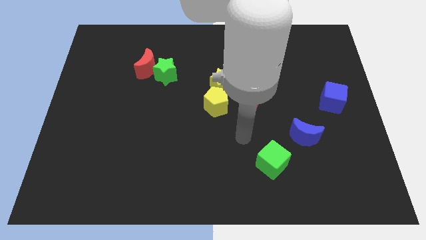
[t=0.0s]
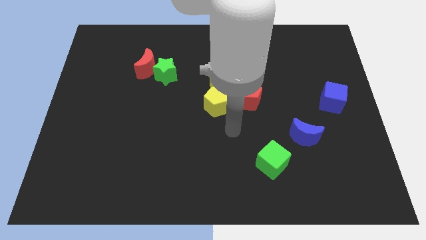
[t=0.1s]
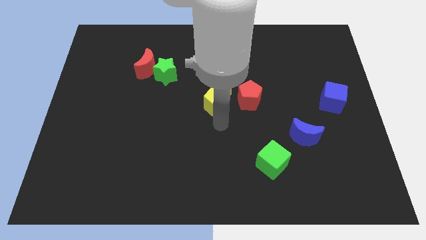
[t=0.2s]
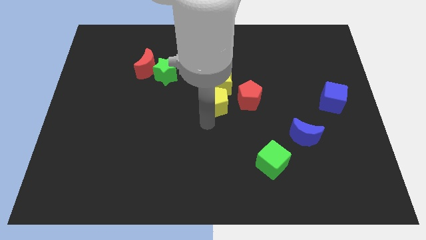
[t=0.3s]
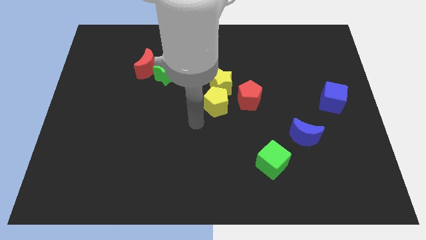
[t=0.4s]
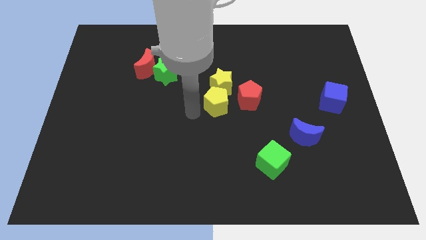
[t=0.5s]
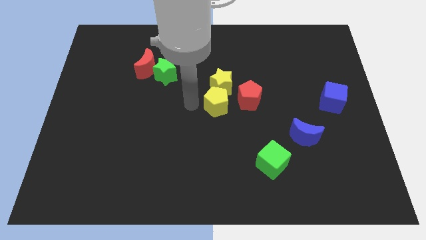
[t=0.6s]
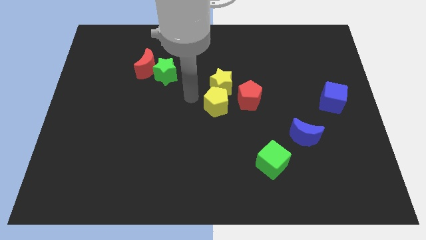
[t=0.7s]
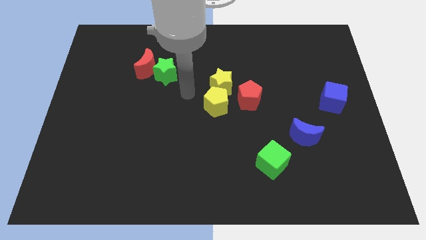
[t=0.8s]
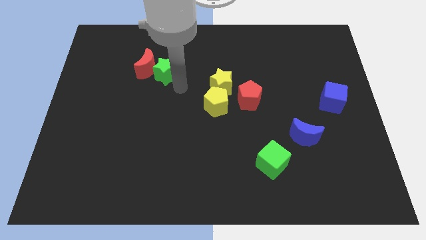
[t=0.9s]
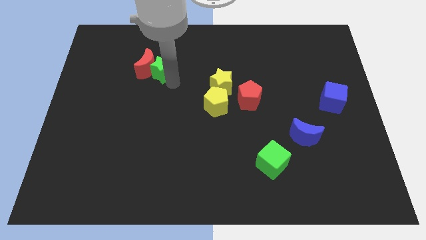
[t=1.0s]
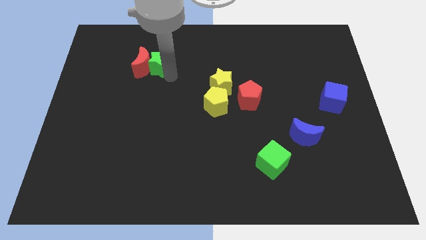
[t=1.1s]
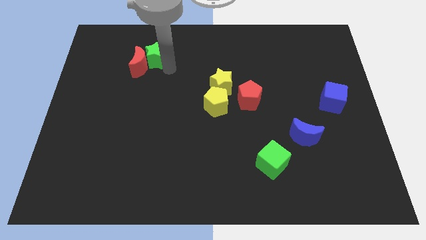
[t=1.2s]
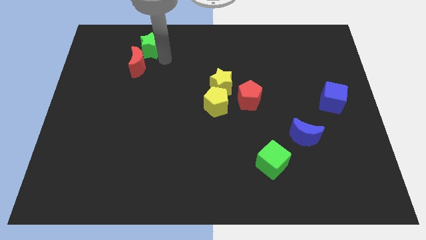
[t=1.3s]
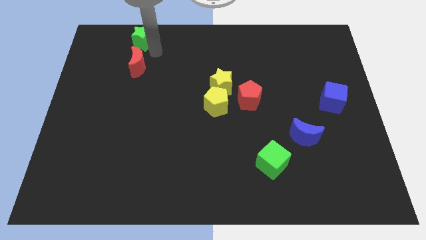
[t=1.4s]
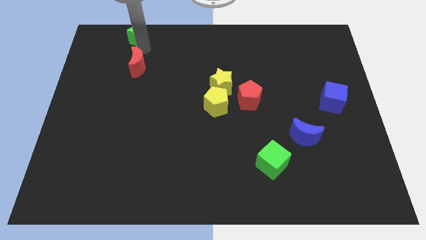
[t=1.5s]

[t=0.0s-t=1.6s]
separate the red moon from the green star

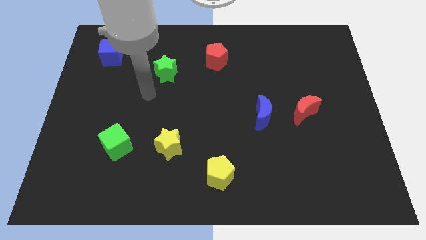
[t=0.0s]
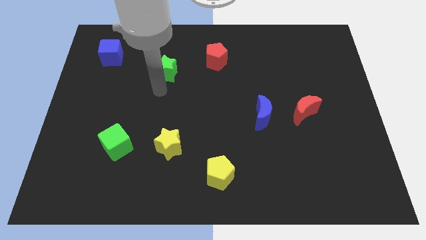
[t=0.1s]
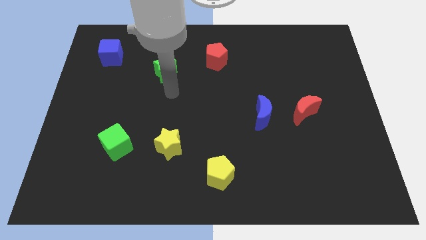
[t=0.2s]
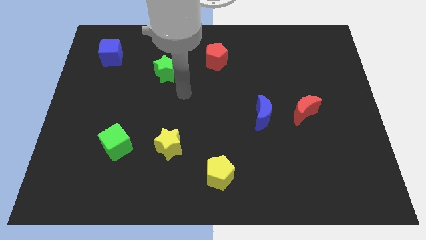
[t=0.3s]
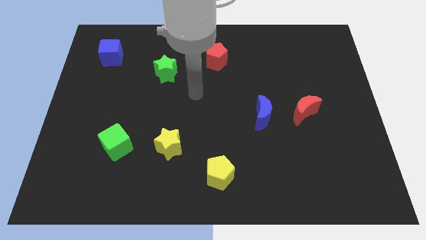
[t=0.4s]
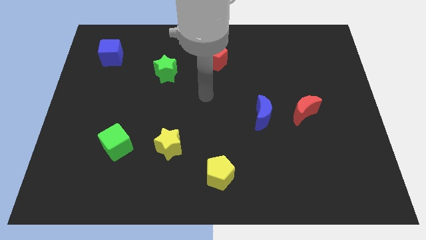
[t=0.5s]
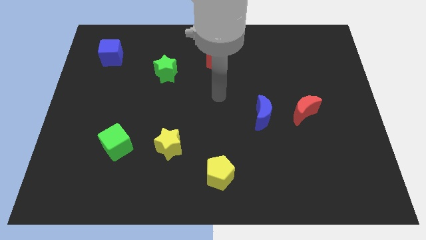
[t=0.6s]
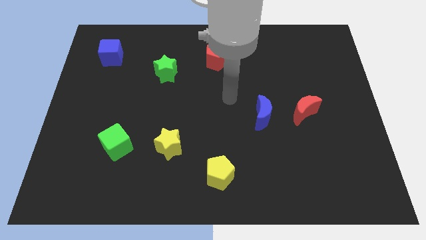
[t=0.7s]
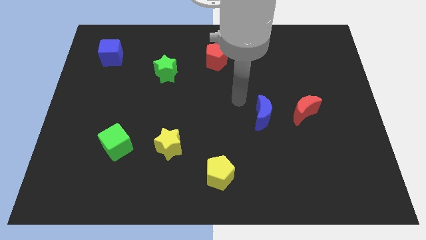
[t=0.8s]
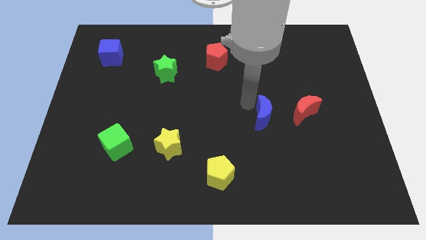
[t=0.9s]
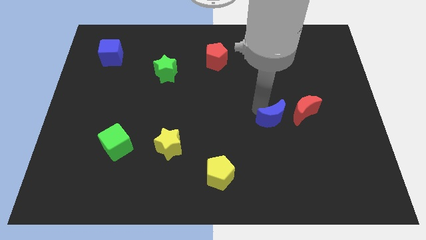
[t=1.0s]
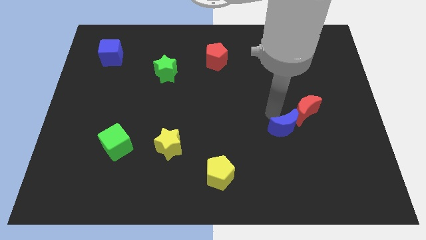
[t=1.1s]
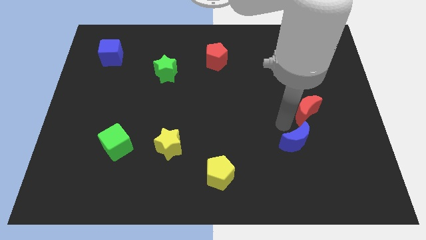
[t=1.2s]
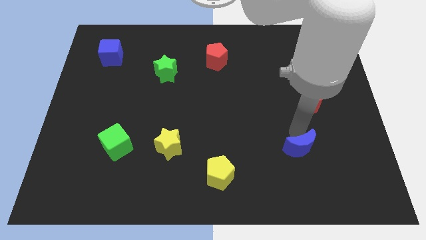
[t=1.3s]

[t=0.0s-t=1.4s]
separate the red moon from the blue moon

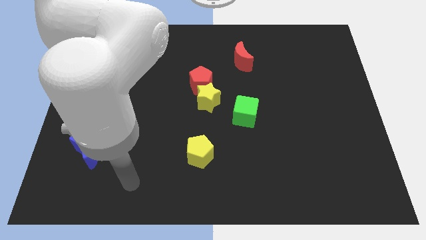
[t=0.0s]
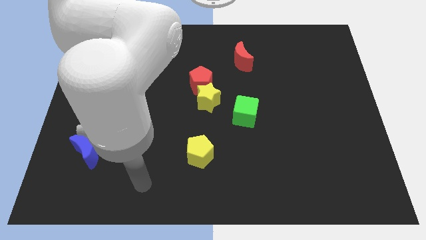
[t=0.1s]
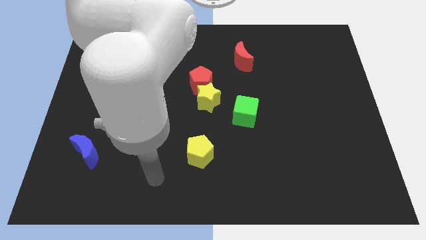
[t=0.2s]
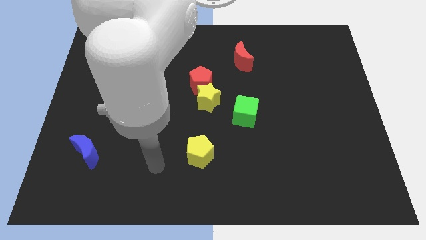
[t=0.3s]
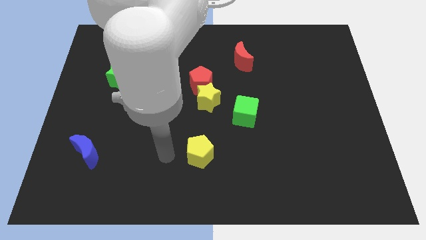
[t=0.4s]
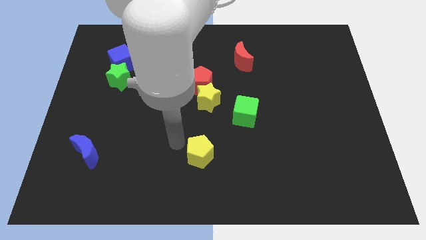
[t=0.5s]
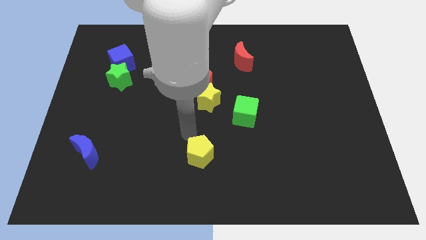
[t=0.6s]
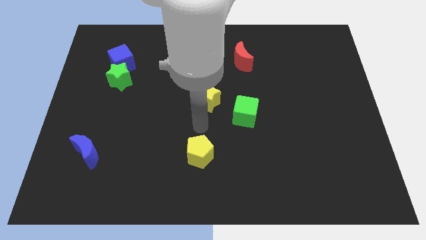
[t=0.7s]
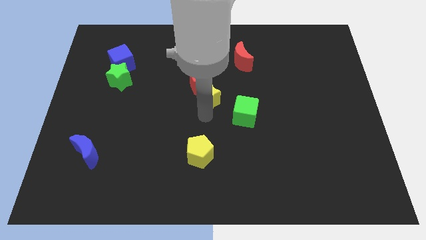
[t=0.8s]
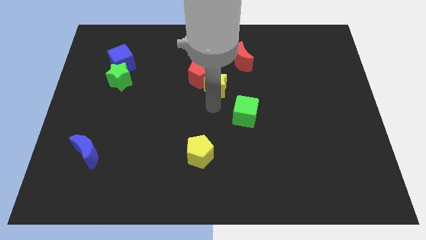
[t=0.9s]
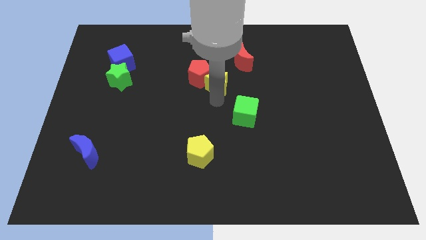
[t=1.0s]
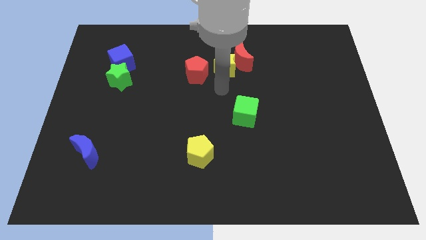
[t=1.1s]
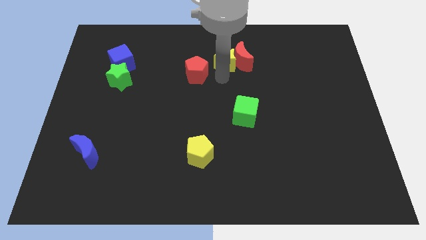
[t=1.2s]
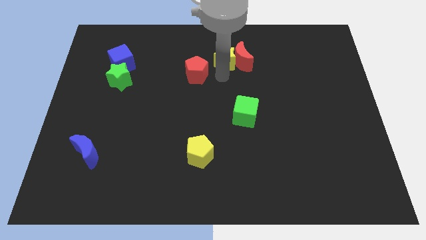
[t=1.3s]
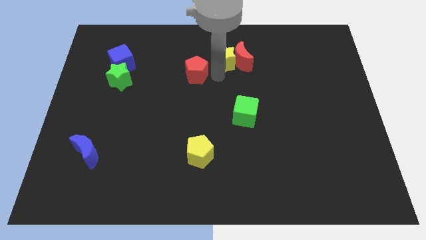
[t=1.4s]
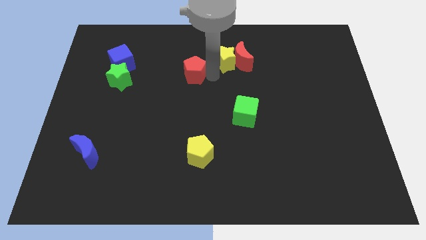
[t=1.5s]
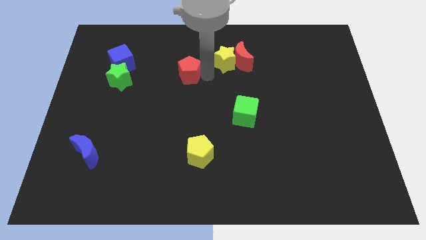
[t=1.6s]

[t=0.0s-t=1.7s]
move the red pentagon away from the yellow star

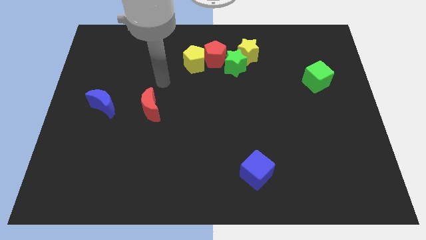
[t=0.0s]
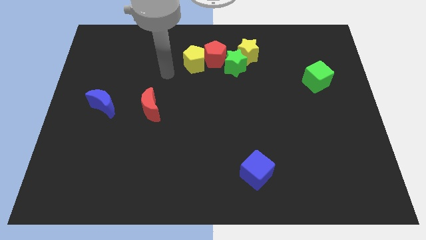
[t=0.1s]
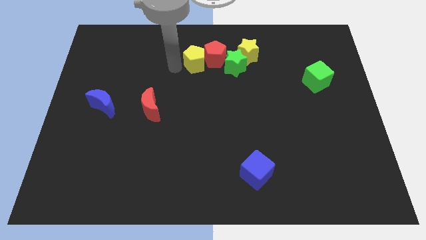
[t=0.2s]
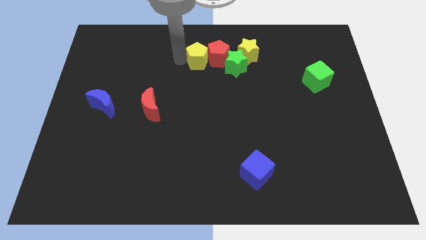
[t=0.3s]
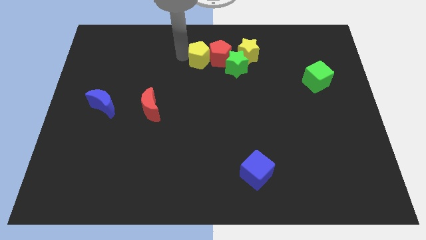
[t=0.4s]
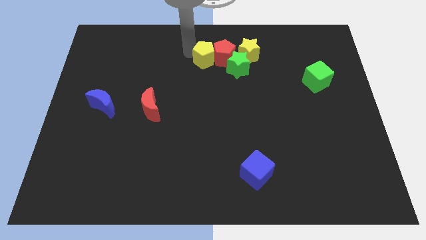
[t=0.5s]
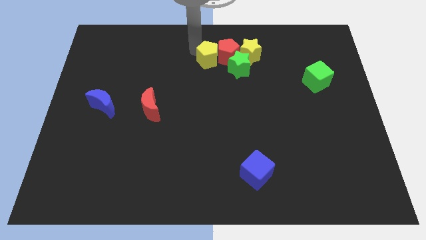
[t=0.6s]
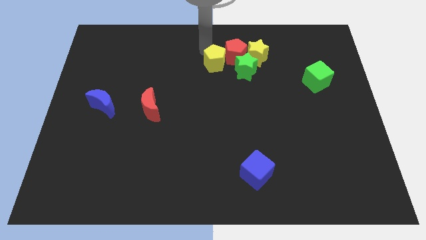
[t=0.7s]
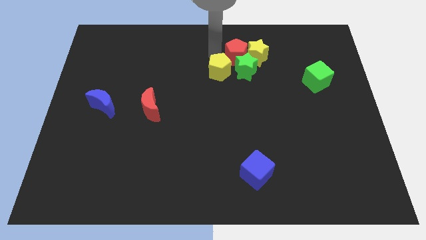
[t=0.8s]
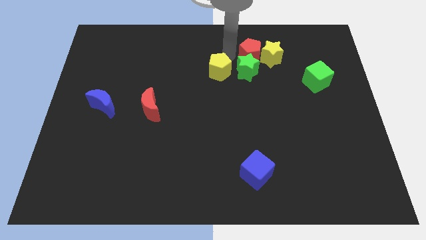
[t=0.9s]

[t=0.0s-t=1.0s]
move the yellow pentagon away from the red pentagon

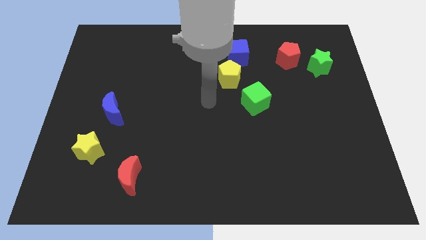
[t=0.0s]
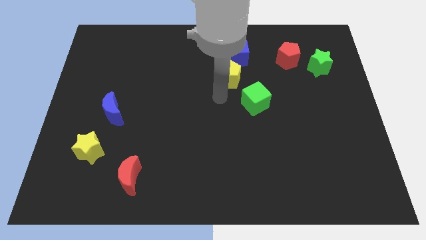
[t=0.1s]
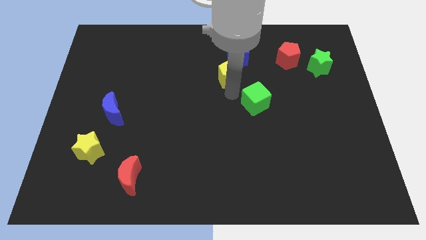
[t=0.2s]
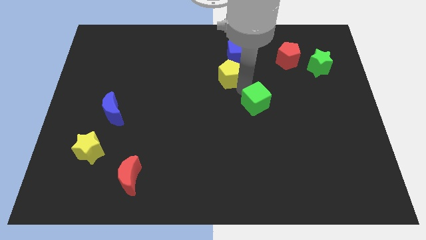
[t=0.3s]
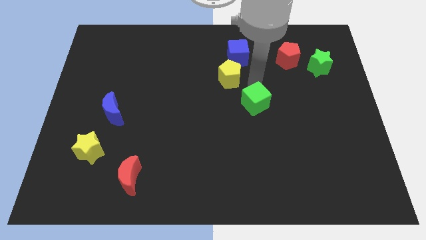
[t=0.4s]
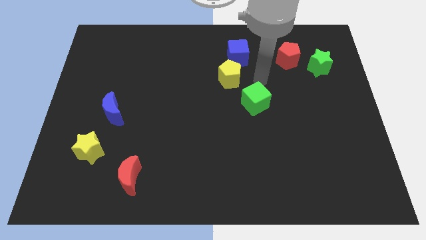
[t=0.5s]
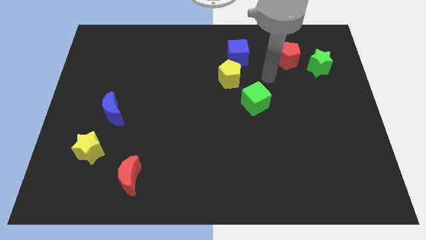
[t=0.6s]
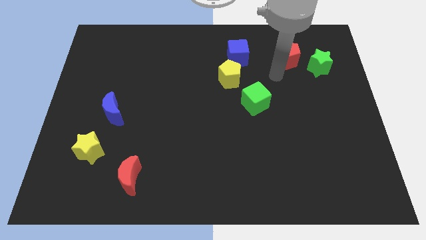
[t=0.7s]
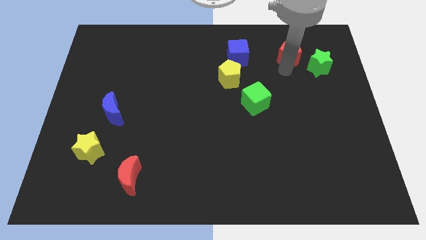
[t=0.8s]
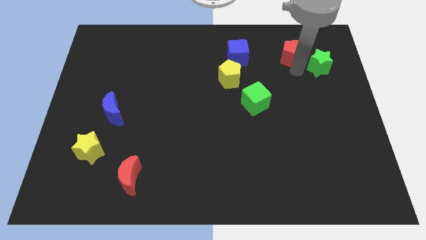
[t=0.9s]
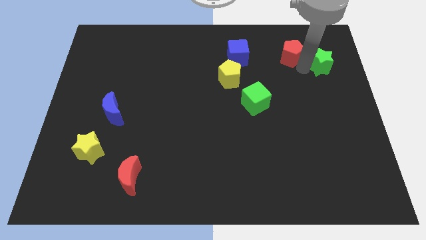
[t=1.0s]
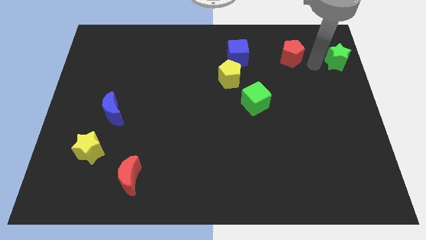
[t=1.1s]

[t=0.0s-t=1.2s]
separate the red pentagon from the green star

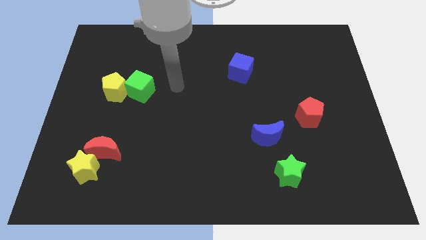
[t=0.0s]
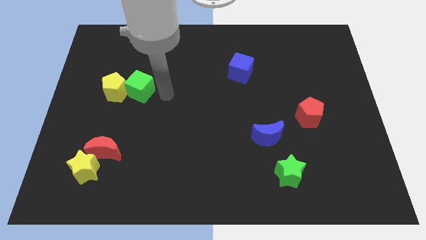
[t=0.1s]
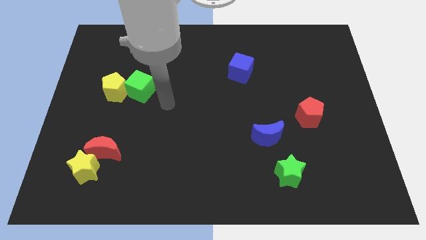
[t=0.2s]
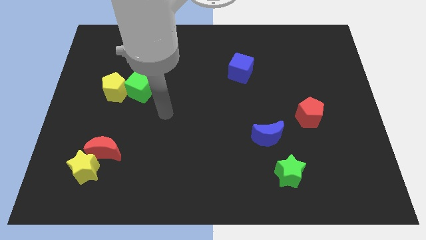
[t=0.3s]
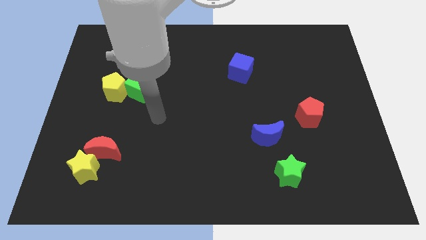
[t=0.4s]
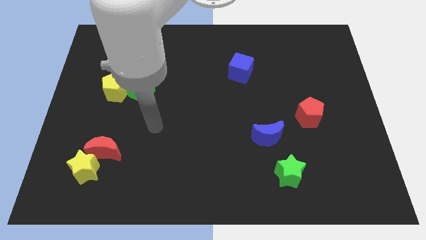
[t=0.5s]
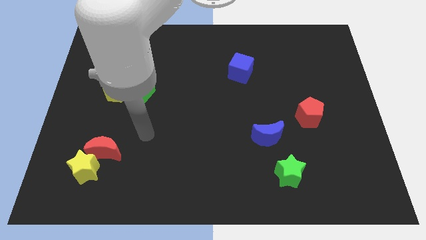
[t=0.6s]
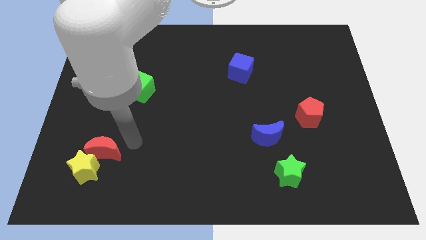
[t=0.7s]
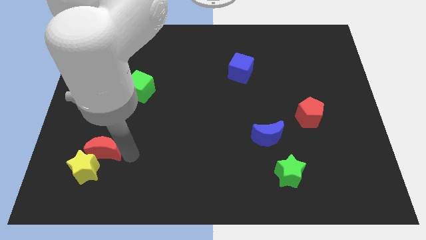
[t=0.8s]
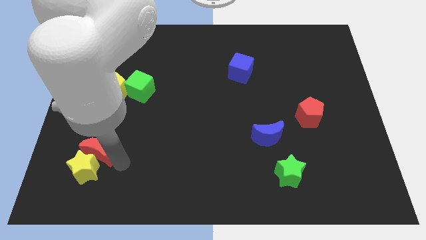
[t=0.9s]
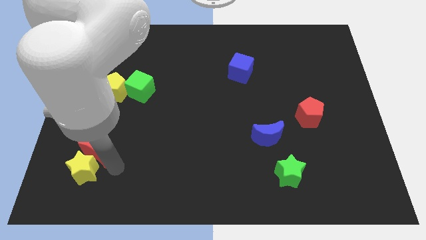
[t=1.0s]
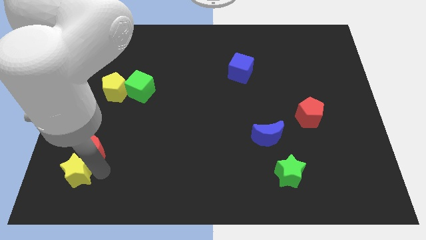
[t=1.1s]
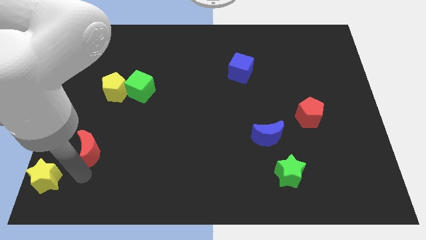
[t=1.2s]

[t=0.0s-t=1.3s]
move the red moon away from the yellow star

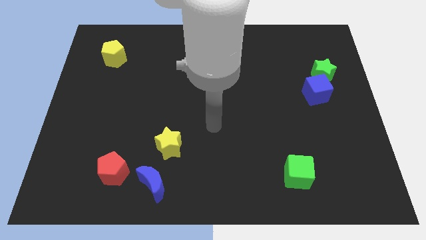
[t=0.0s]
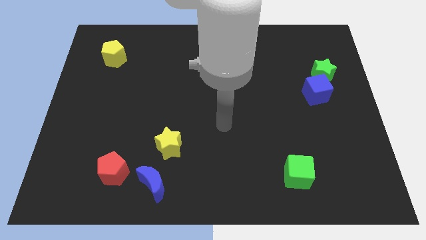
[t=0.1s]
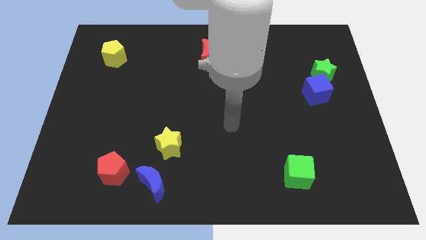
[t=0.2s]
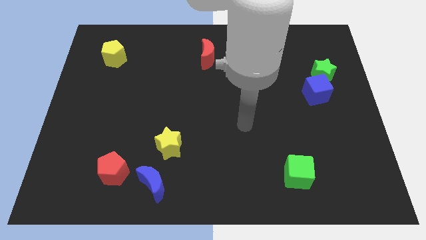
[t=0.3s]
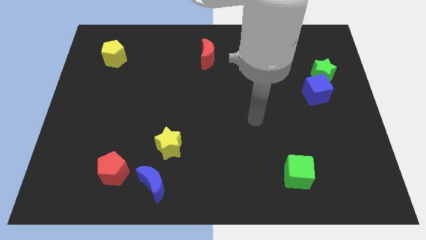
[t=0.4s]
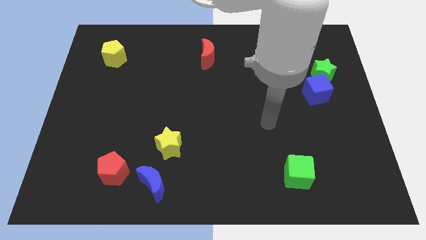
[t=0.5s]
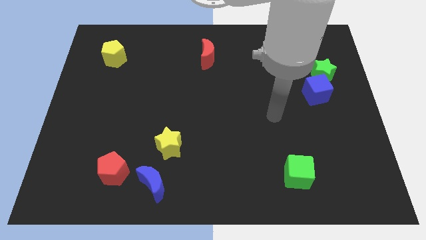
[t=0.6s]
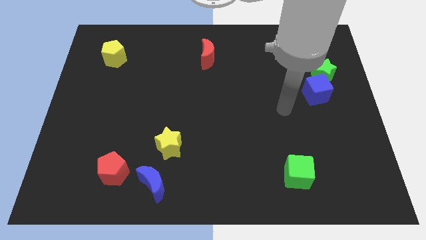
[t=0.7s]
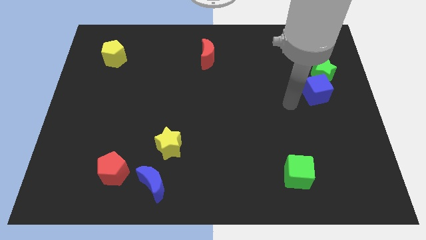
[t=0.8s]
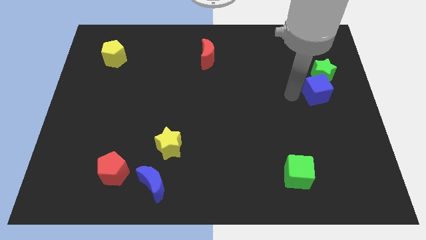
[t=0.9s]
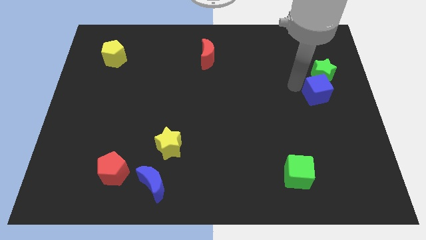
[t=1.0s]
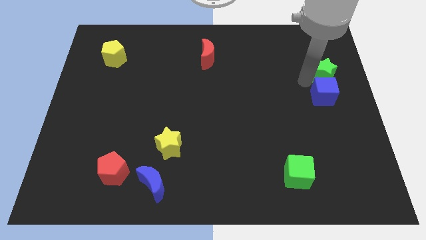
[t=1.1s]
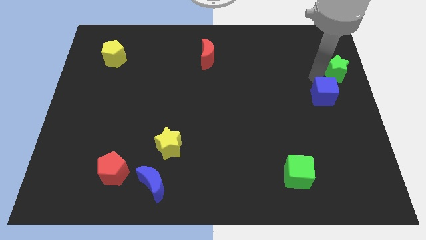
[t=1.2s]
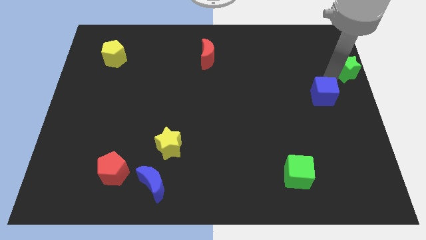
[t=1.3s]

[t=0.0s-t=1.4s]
move the blue cube away from the green star
